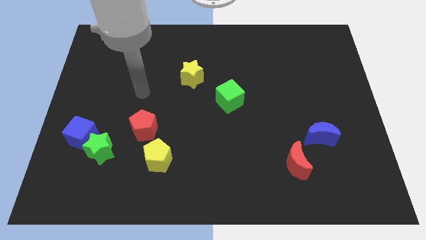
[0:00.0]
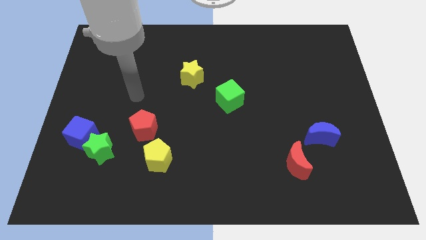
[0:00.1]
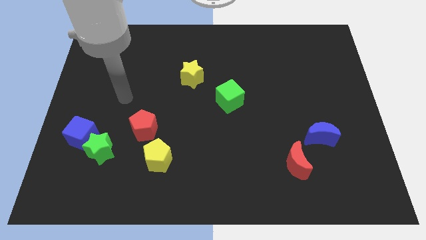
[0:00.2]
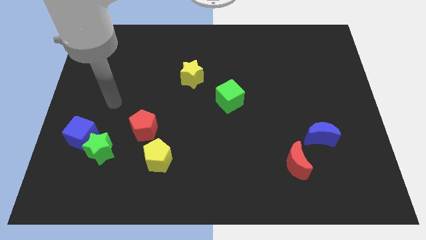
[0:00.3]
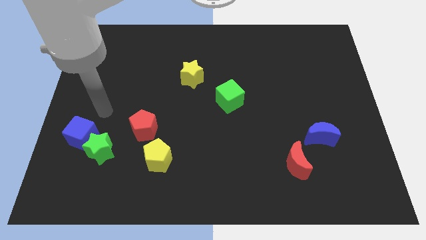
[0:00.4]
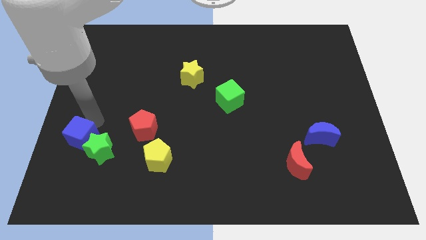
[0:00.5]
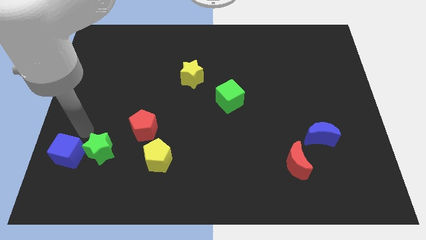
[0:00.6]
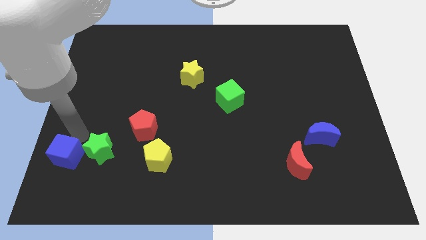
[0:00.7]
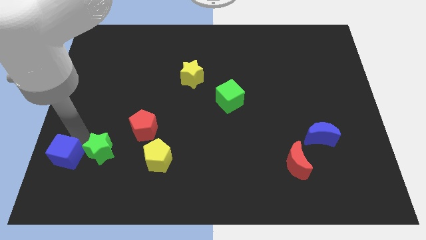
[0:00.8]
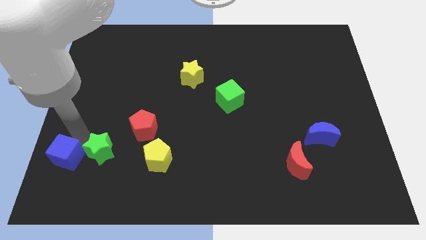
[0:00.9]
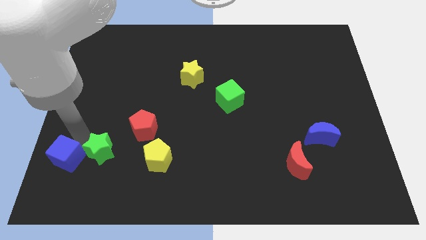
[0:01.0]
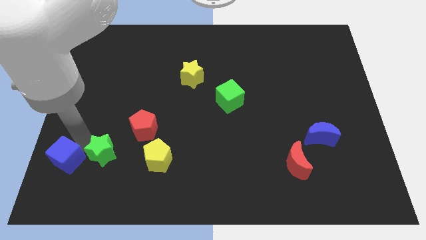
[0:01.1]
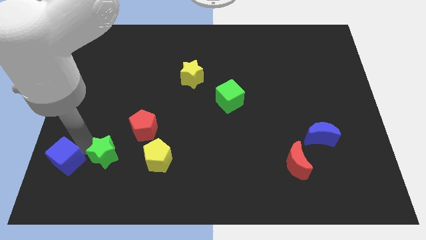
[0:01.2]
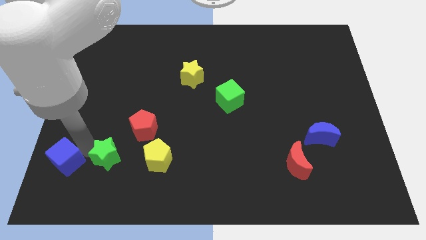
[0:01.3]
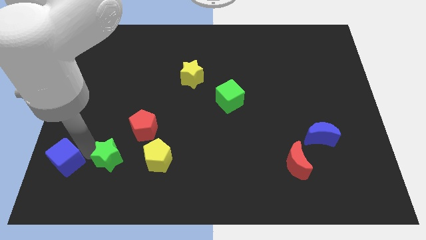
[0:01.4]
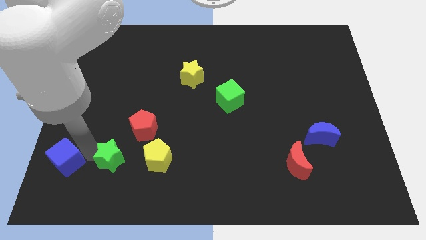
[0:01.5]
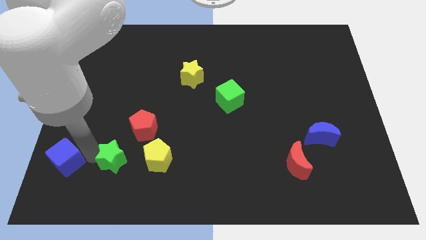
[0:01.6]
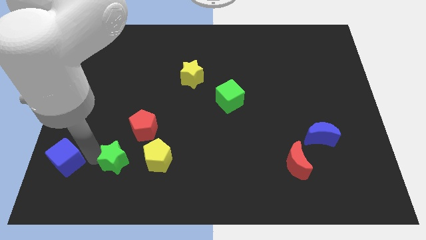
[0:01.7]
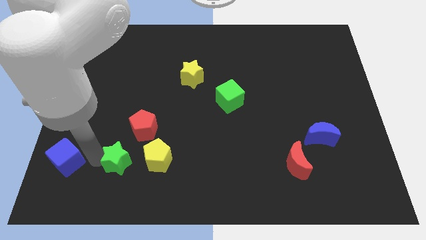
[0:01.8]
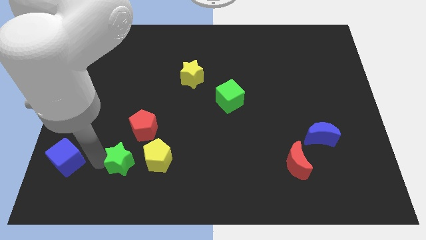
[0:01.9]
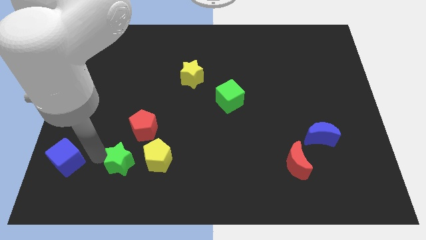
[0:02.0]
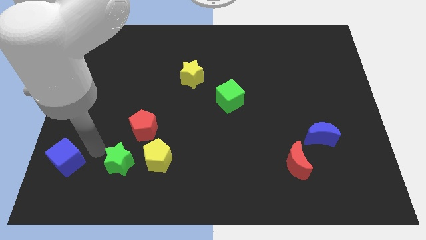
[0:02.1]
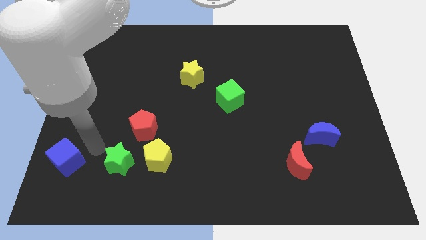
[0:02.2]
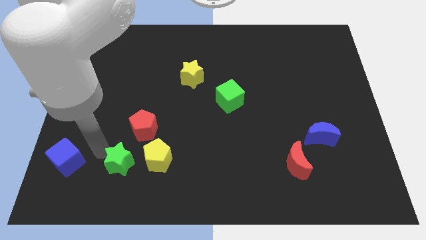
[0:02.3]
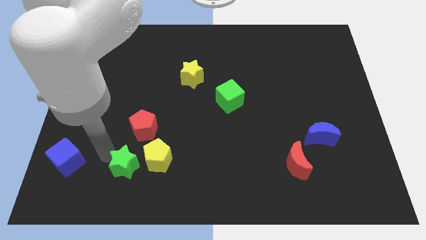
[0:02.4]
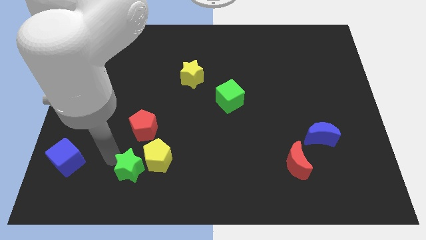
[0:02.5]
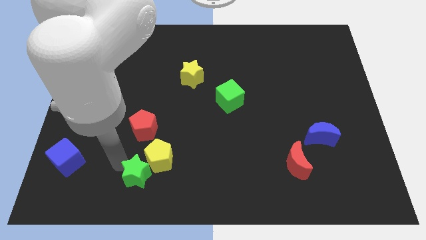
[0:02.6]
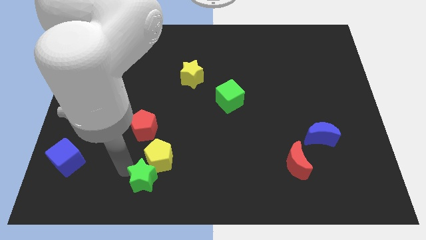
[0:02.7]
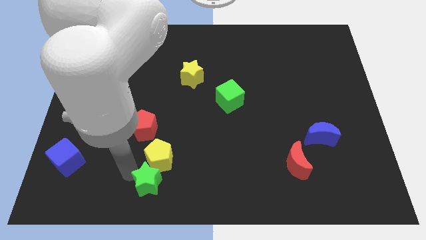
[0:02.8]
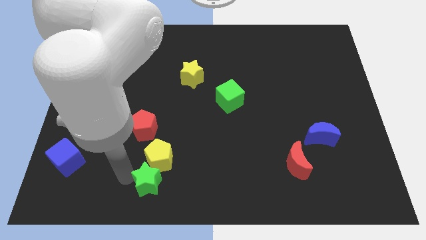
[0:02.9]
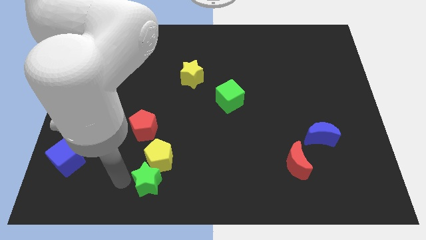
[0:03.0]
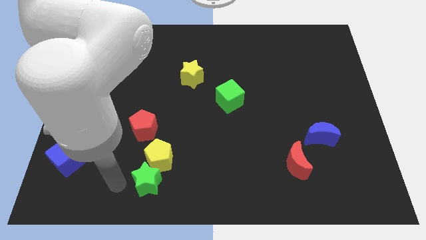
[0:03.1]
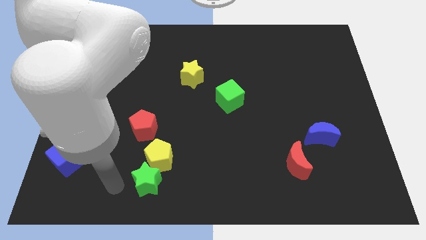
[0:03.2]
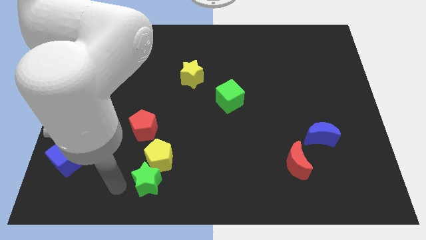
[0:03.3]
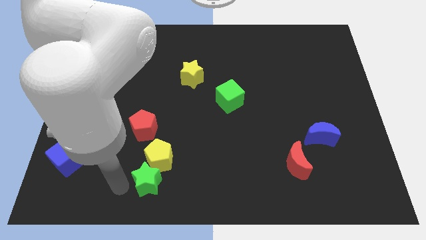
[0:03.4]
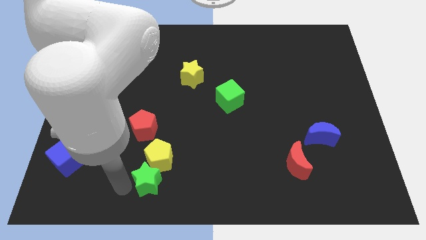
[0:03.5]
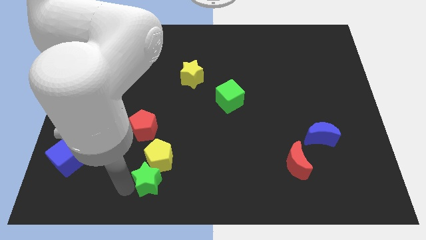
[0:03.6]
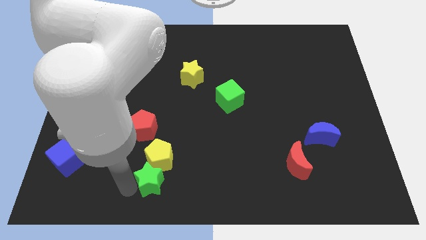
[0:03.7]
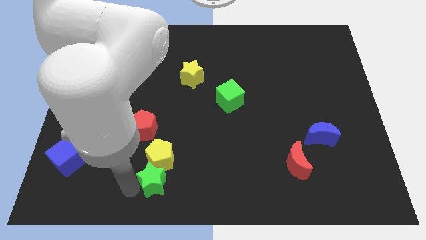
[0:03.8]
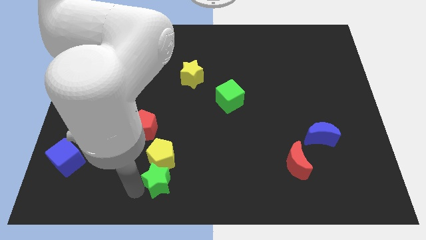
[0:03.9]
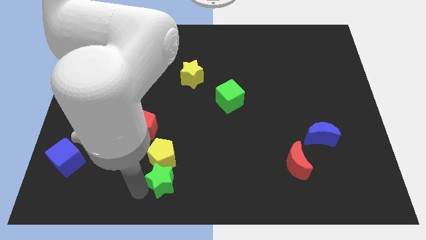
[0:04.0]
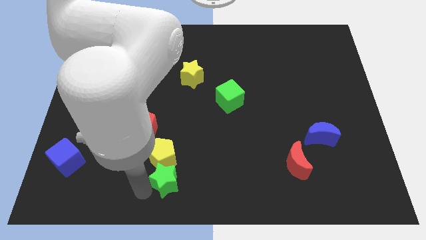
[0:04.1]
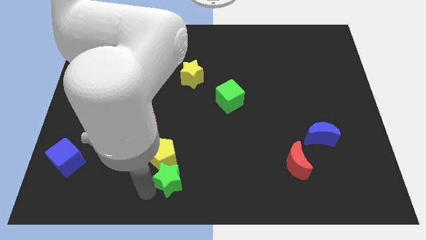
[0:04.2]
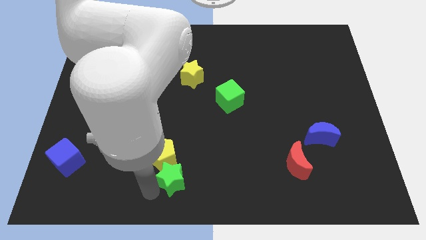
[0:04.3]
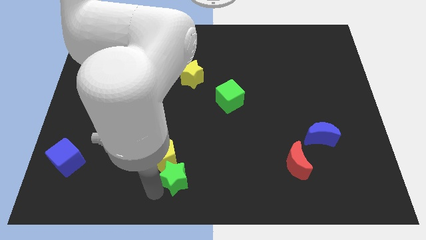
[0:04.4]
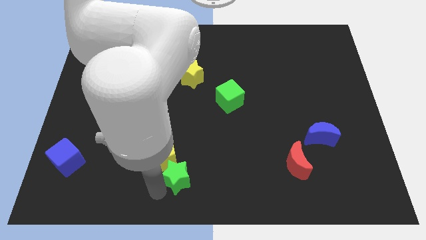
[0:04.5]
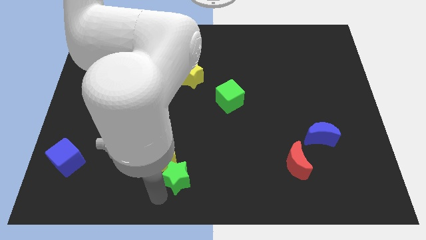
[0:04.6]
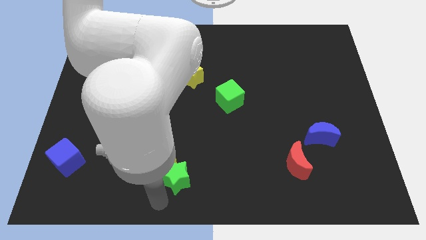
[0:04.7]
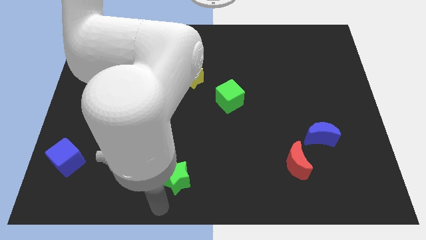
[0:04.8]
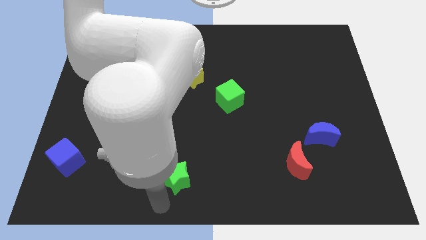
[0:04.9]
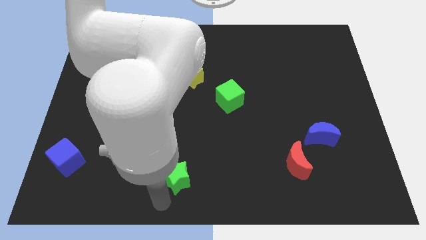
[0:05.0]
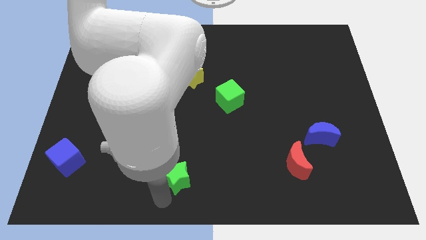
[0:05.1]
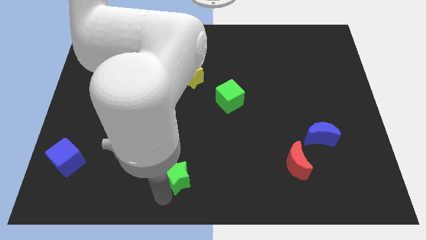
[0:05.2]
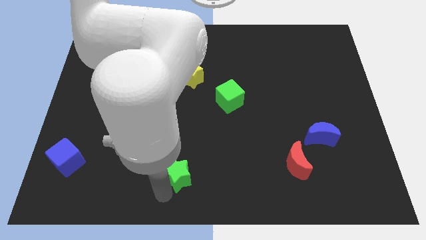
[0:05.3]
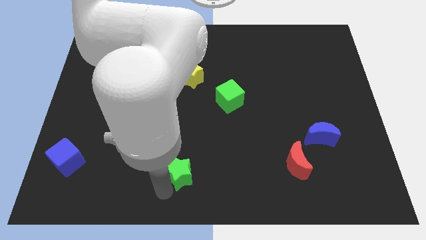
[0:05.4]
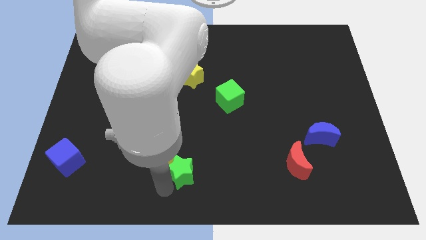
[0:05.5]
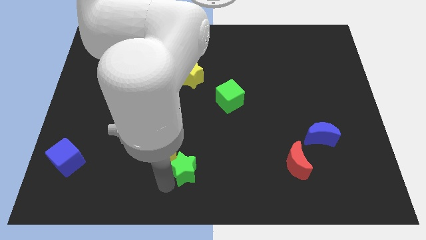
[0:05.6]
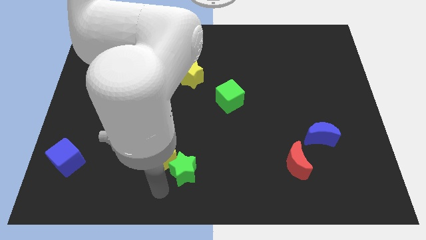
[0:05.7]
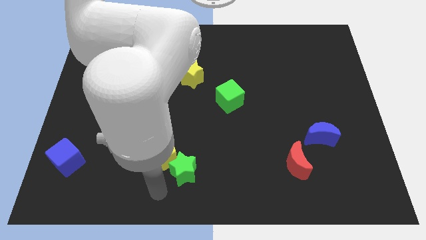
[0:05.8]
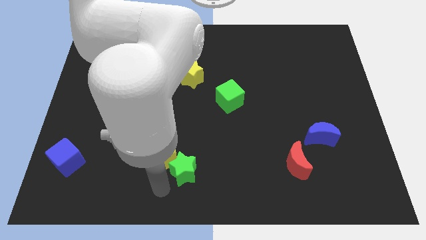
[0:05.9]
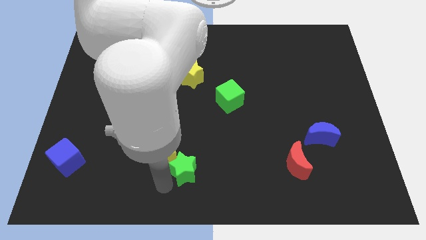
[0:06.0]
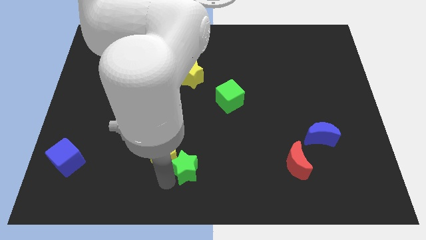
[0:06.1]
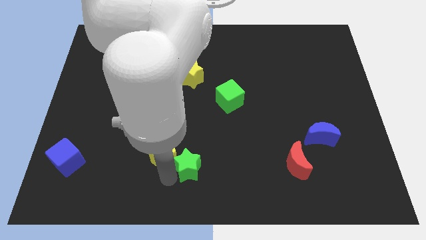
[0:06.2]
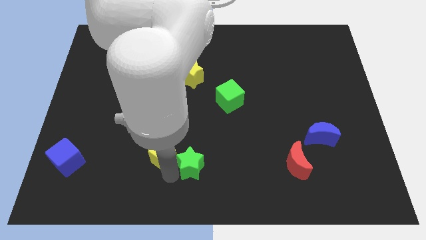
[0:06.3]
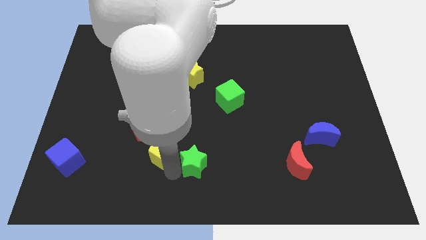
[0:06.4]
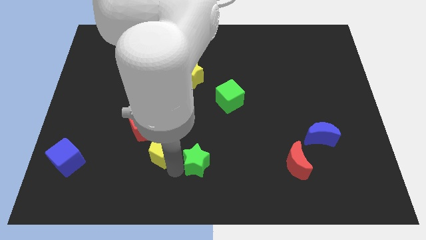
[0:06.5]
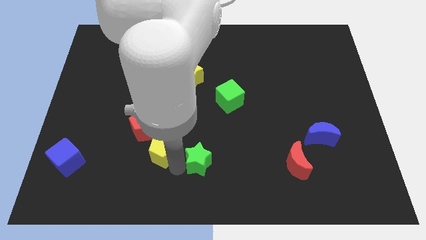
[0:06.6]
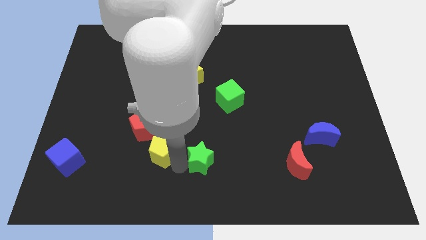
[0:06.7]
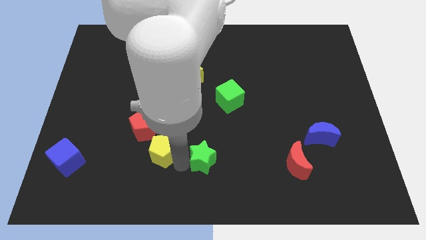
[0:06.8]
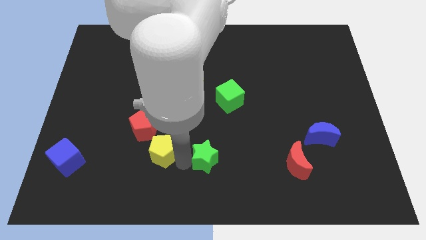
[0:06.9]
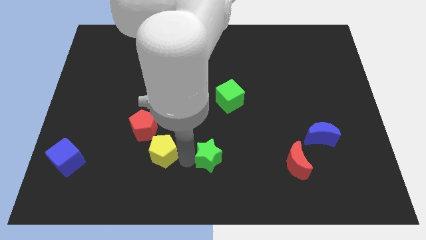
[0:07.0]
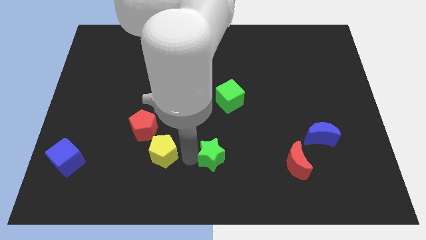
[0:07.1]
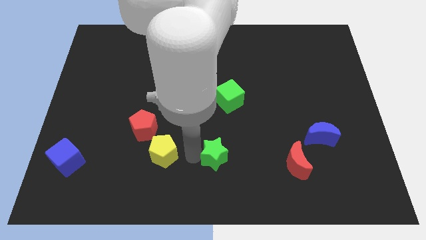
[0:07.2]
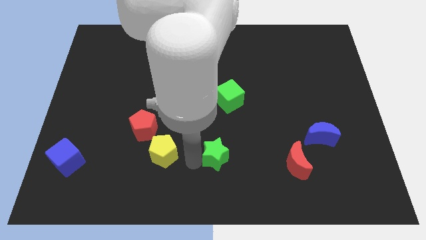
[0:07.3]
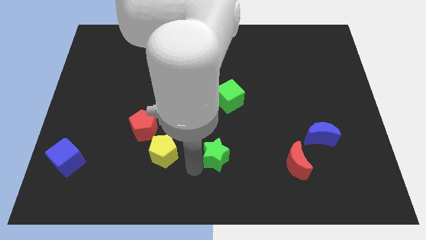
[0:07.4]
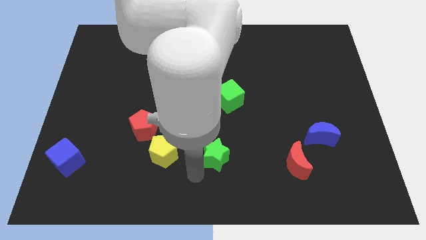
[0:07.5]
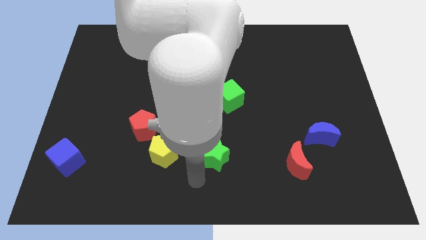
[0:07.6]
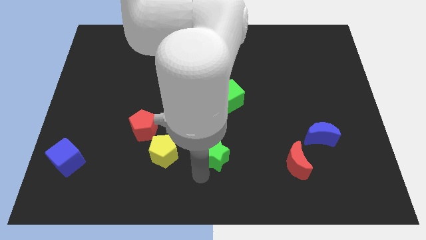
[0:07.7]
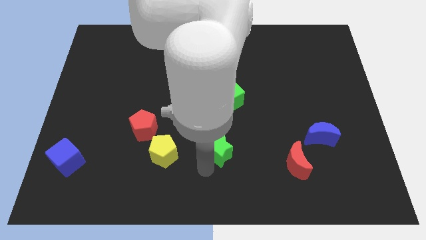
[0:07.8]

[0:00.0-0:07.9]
move the green star to the bottom of the green cube
